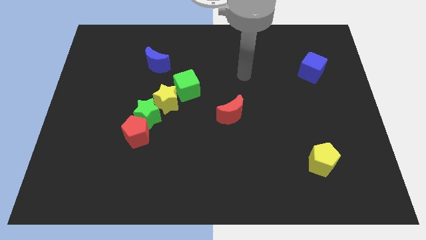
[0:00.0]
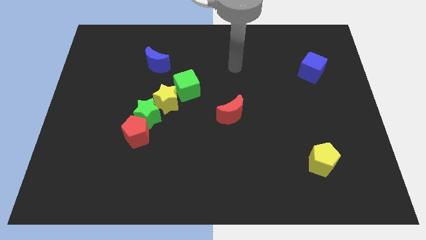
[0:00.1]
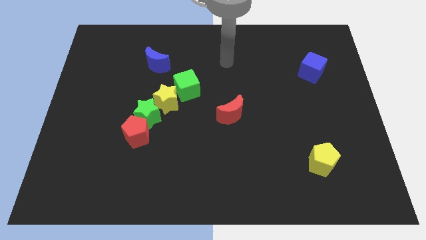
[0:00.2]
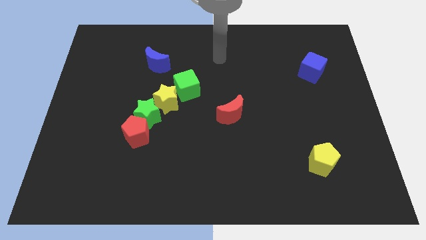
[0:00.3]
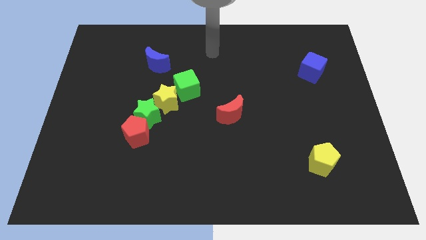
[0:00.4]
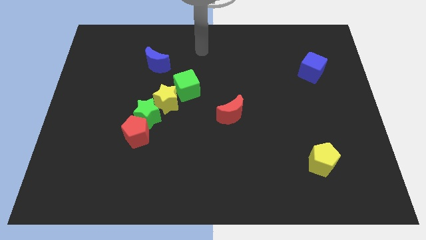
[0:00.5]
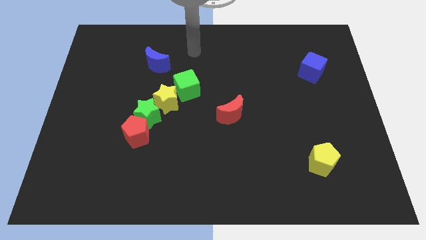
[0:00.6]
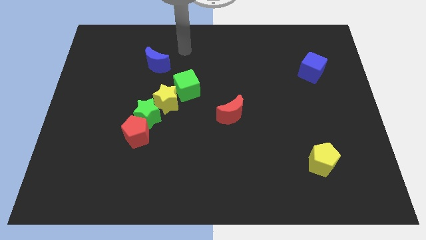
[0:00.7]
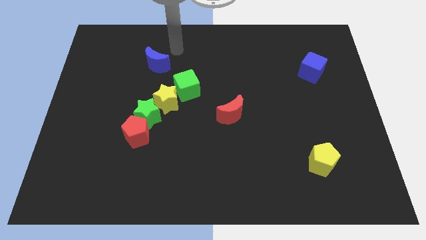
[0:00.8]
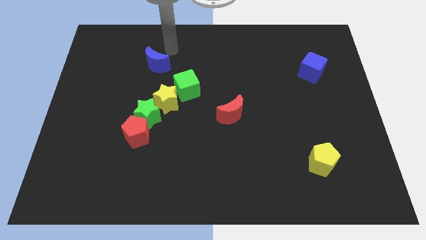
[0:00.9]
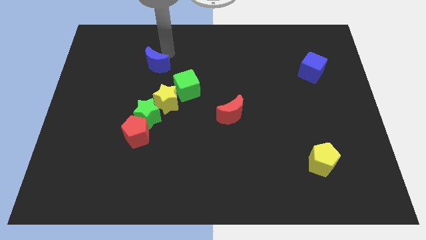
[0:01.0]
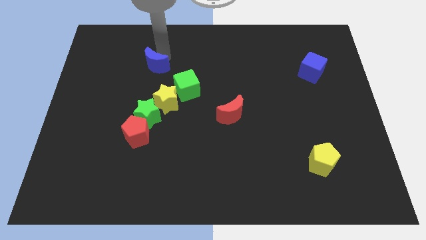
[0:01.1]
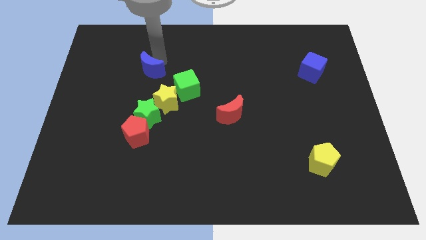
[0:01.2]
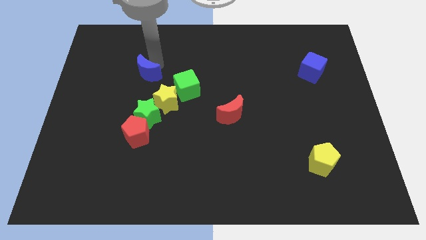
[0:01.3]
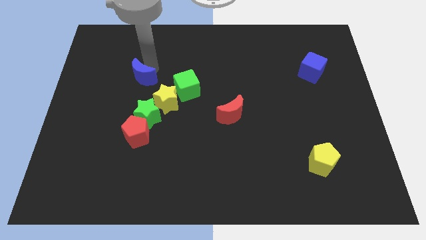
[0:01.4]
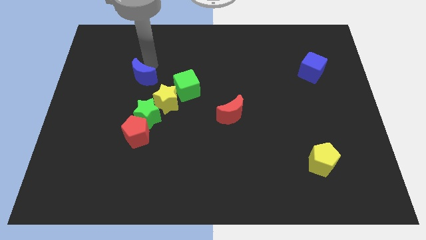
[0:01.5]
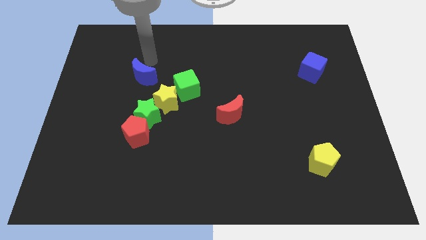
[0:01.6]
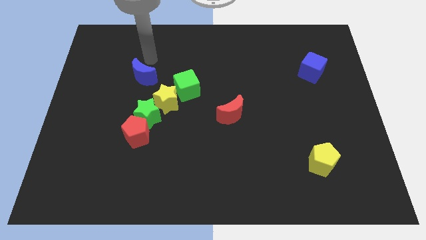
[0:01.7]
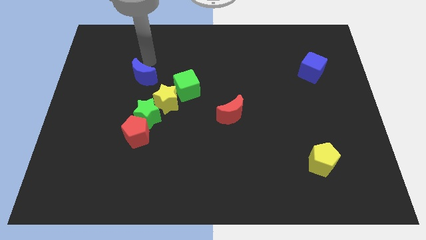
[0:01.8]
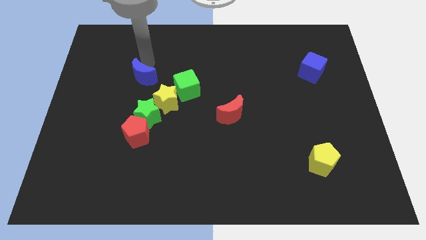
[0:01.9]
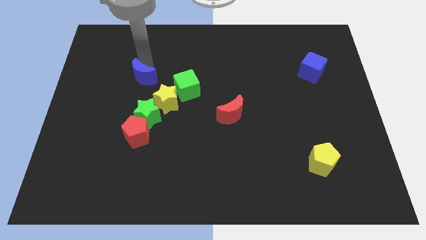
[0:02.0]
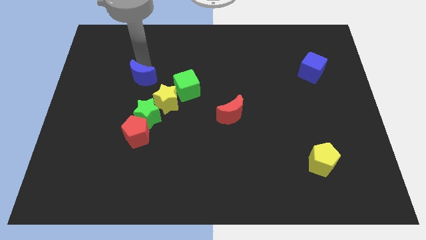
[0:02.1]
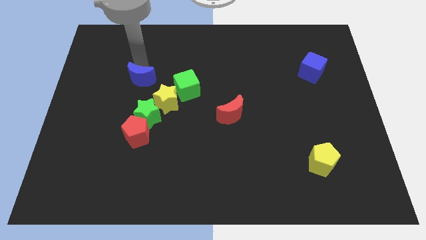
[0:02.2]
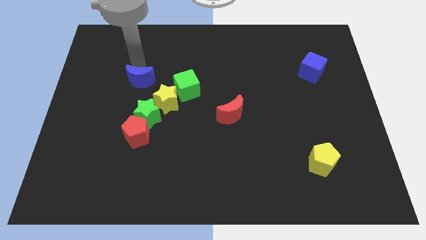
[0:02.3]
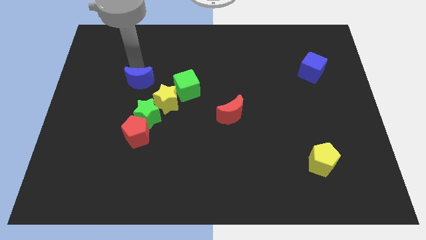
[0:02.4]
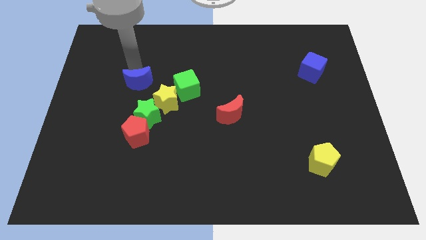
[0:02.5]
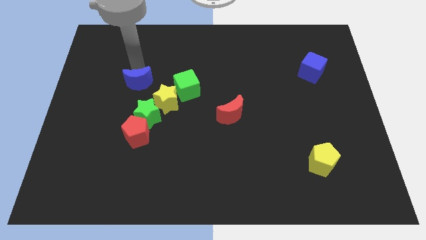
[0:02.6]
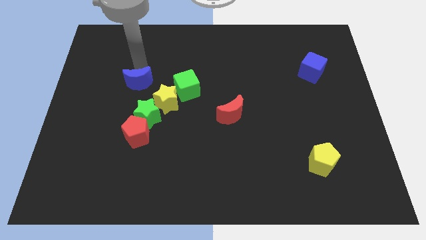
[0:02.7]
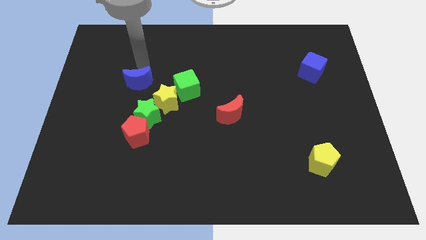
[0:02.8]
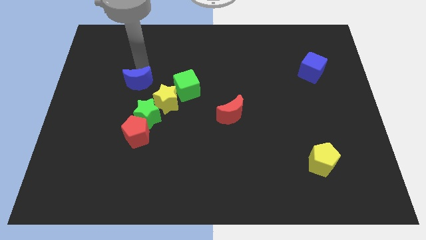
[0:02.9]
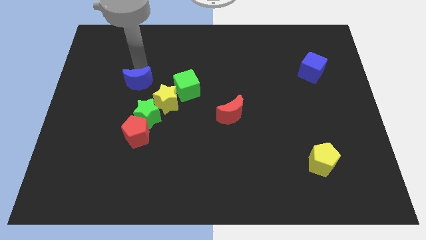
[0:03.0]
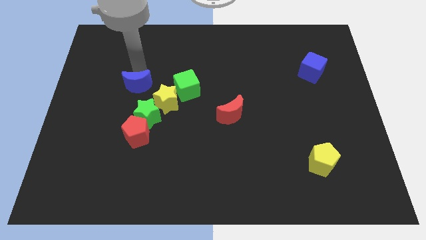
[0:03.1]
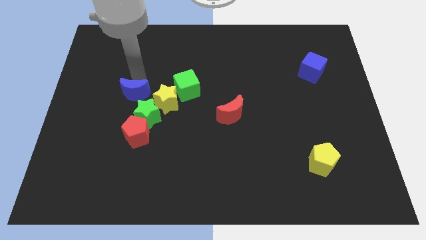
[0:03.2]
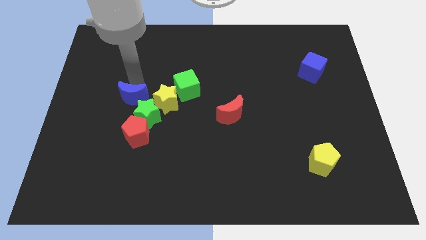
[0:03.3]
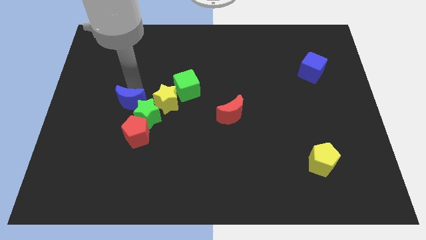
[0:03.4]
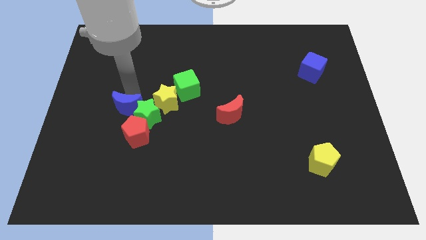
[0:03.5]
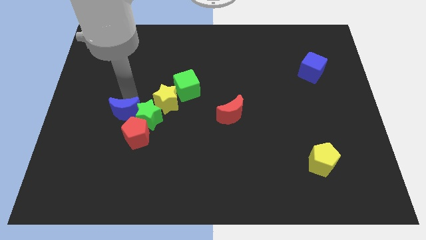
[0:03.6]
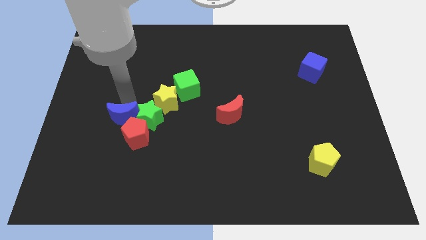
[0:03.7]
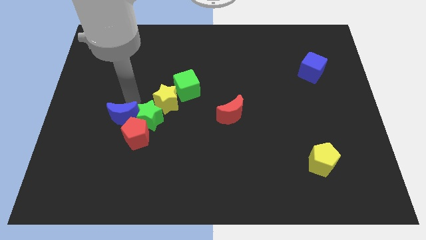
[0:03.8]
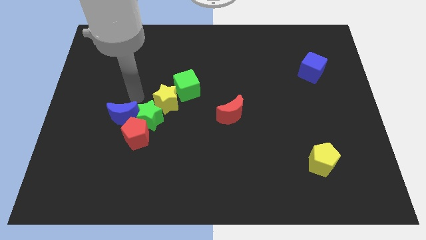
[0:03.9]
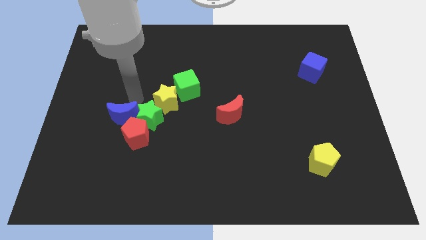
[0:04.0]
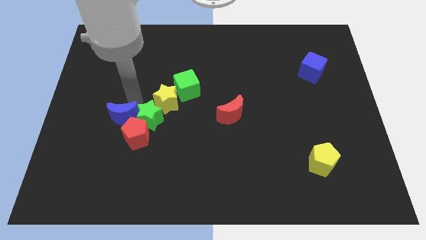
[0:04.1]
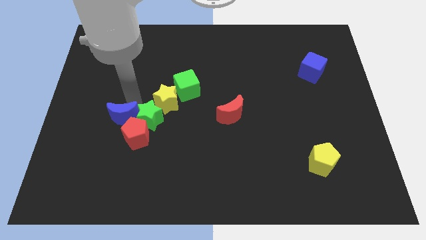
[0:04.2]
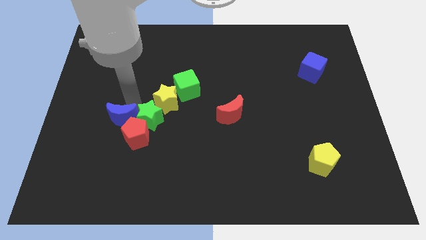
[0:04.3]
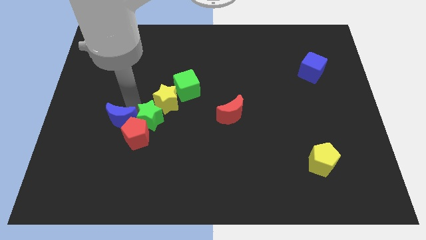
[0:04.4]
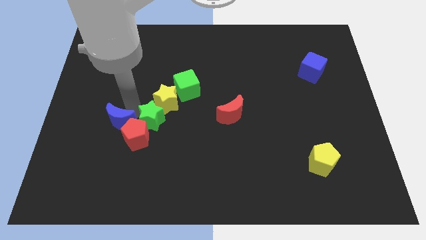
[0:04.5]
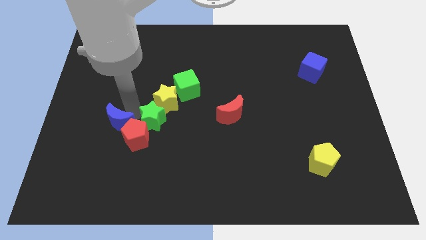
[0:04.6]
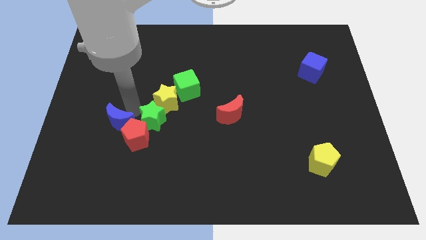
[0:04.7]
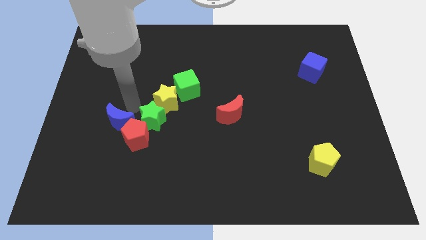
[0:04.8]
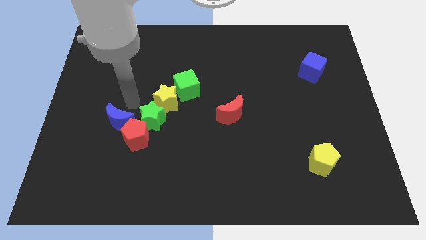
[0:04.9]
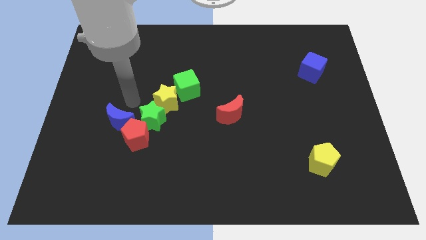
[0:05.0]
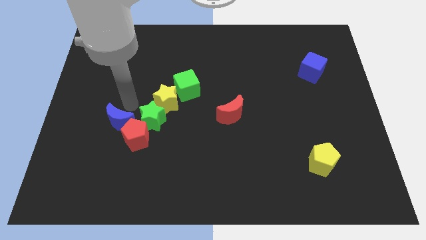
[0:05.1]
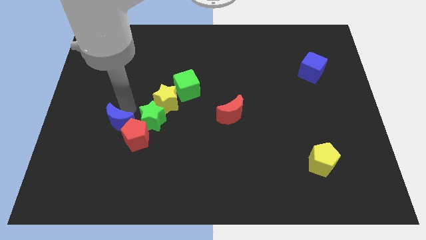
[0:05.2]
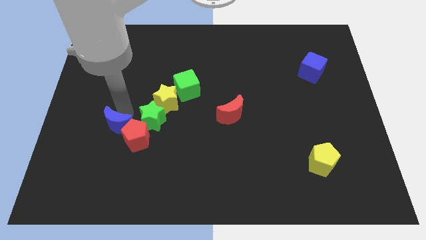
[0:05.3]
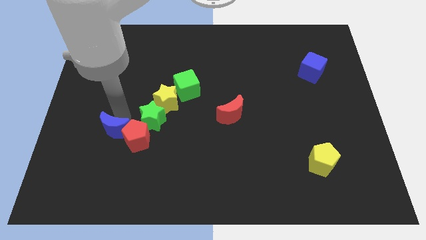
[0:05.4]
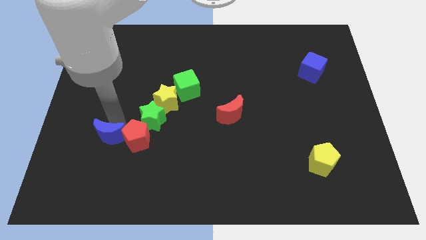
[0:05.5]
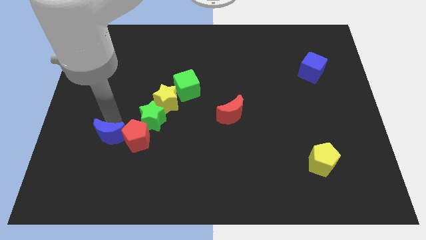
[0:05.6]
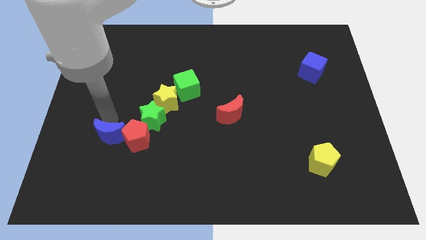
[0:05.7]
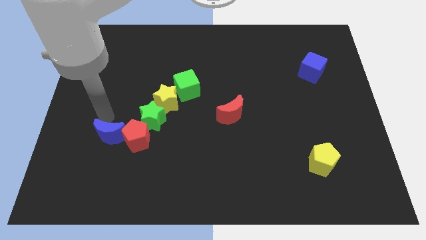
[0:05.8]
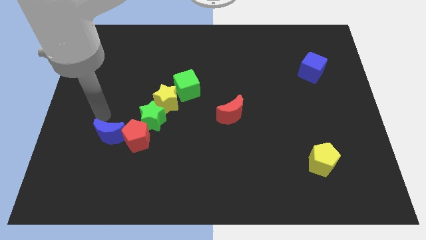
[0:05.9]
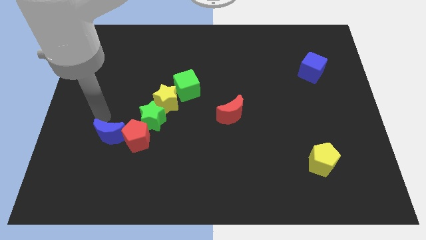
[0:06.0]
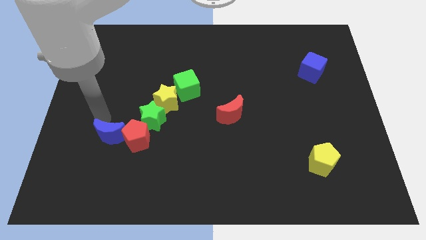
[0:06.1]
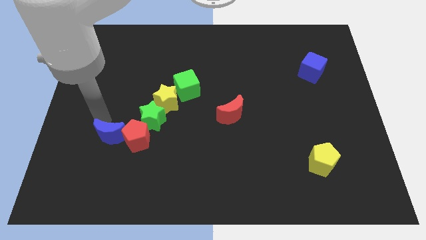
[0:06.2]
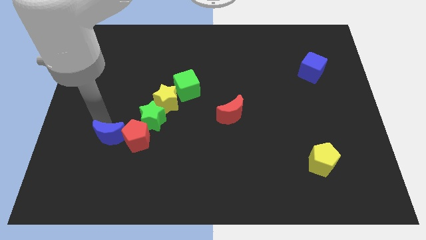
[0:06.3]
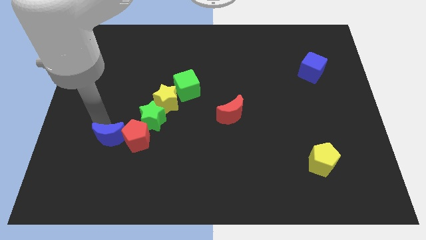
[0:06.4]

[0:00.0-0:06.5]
slide the blue moon downwards

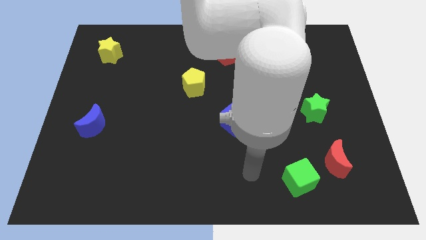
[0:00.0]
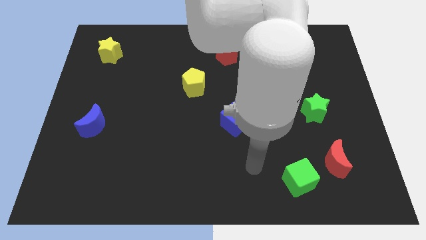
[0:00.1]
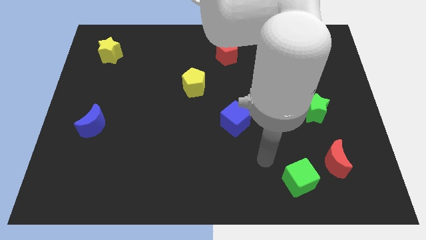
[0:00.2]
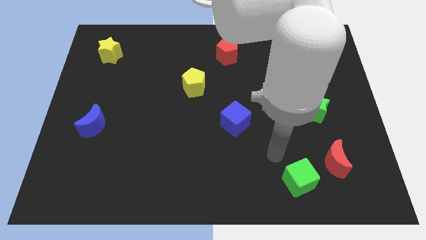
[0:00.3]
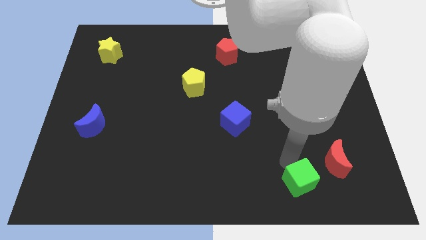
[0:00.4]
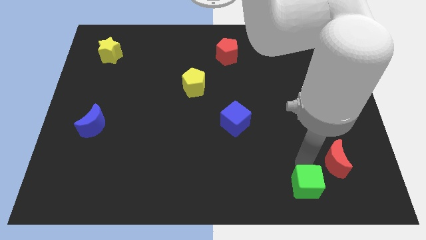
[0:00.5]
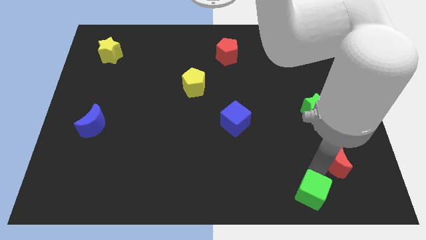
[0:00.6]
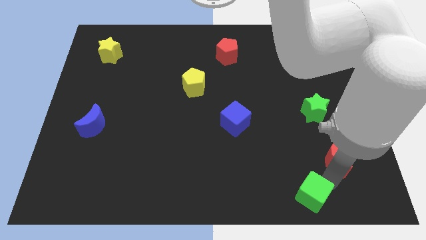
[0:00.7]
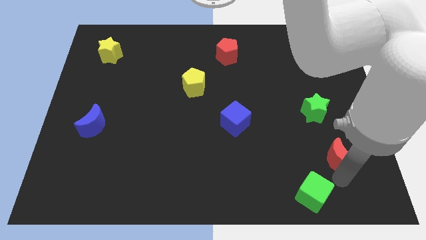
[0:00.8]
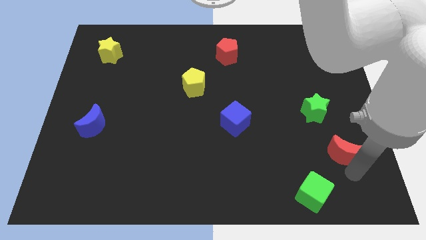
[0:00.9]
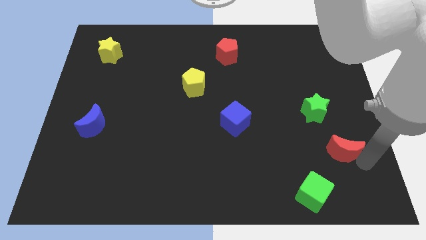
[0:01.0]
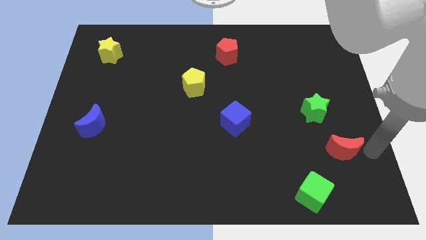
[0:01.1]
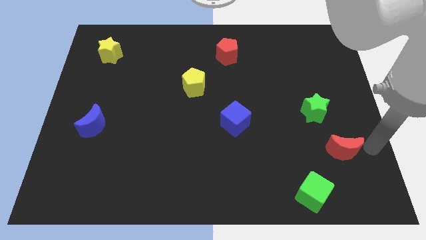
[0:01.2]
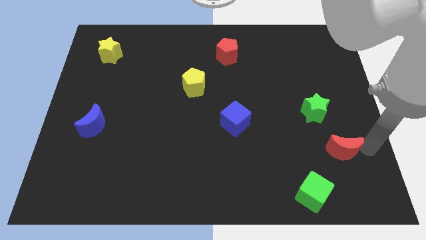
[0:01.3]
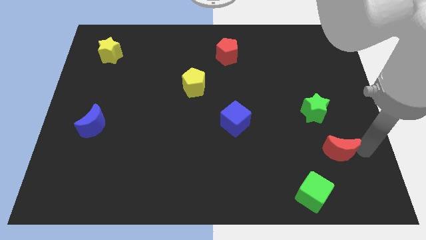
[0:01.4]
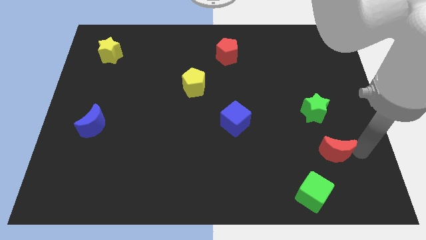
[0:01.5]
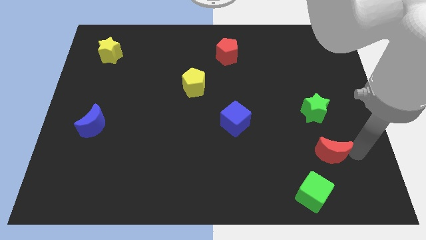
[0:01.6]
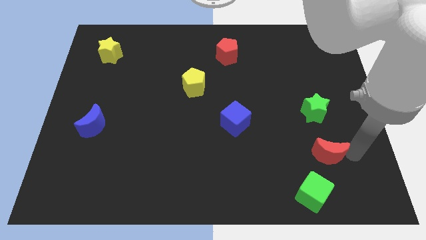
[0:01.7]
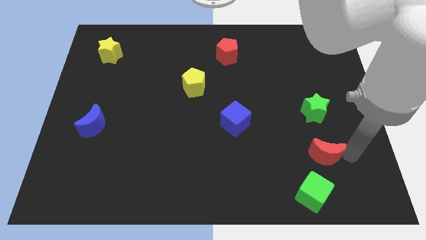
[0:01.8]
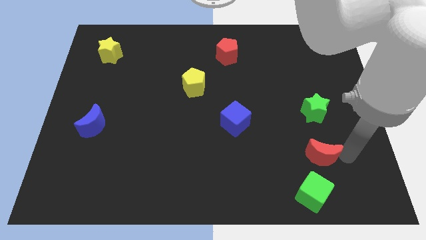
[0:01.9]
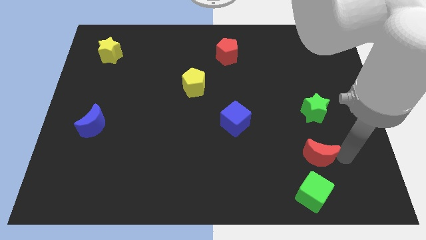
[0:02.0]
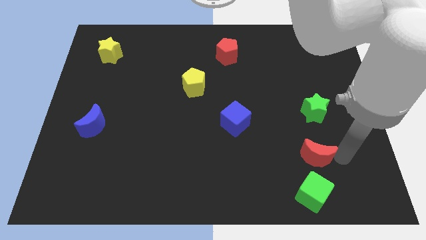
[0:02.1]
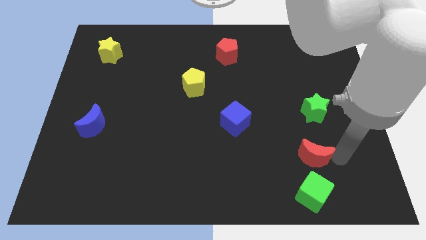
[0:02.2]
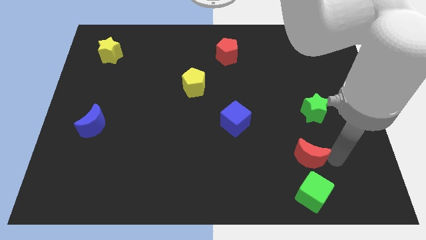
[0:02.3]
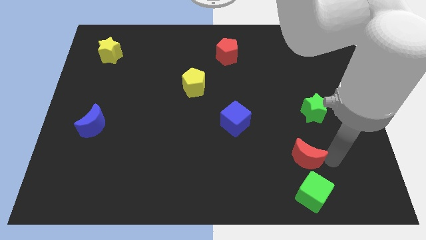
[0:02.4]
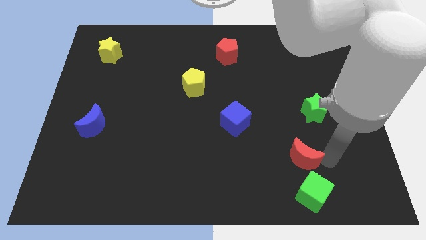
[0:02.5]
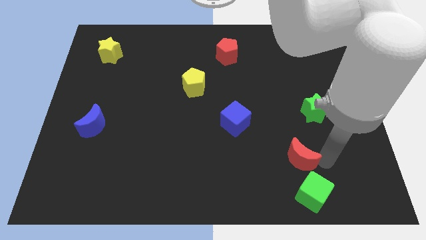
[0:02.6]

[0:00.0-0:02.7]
slightly slide the red moon left
